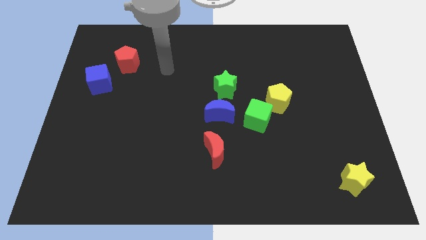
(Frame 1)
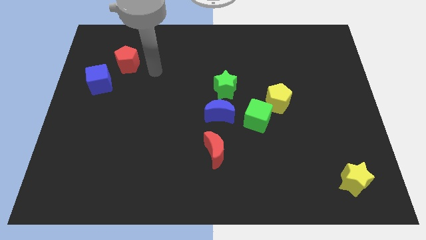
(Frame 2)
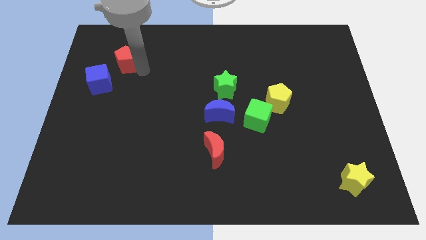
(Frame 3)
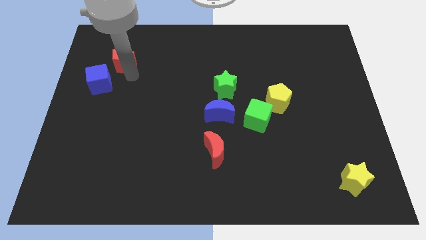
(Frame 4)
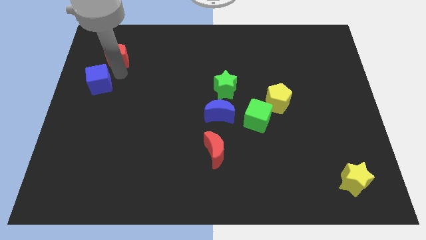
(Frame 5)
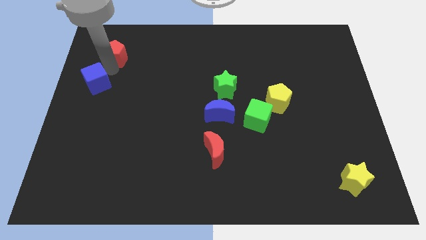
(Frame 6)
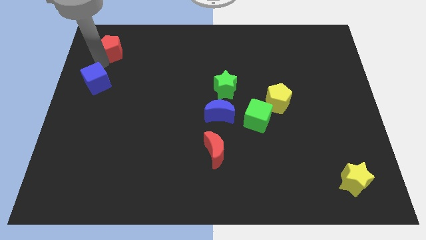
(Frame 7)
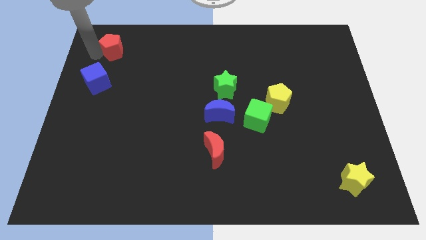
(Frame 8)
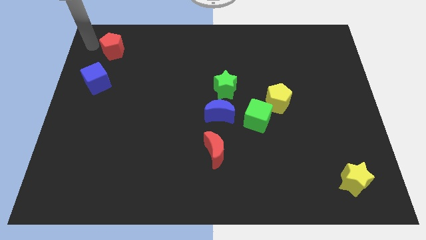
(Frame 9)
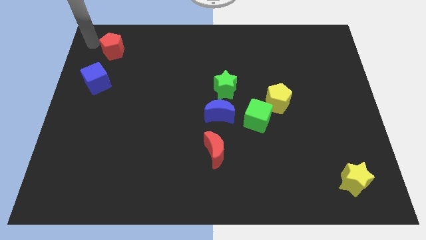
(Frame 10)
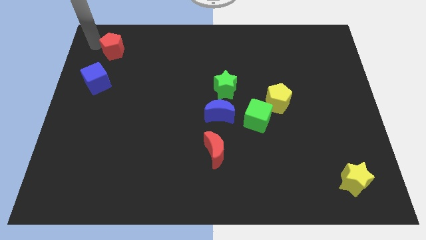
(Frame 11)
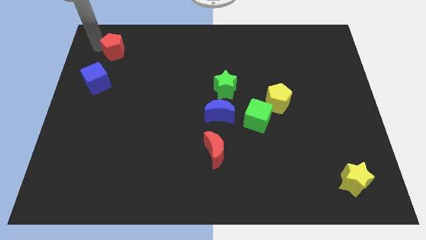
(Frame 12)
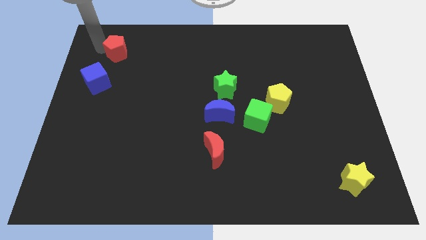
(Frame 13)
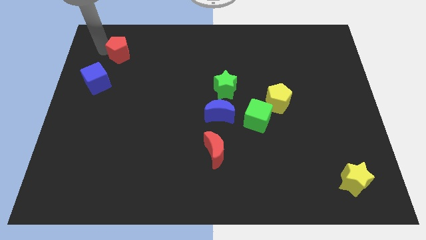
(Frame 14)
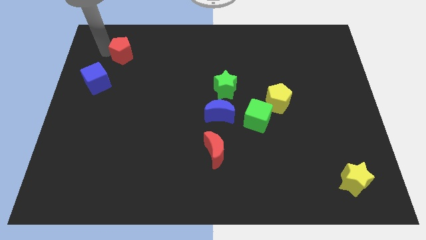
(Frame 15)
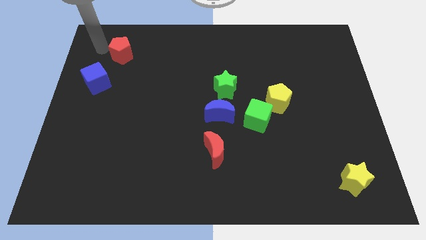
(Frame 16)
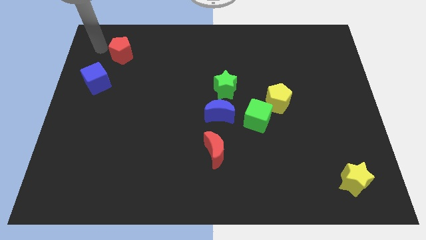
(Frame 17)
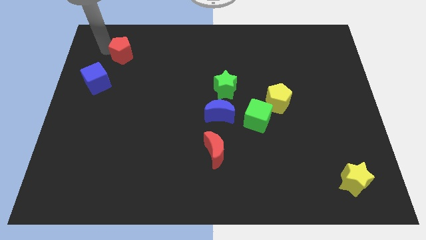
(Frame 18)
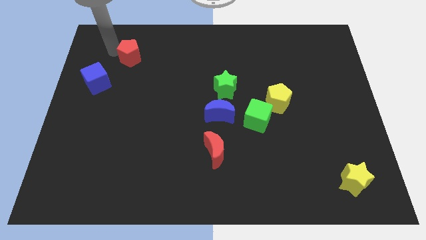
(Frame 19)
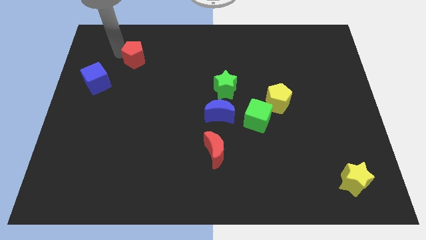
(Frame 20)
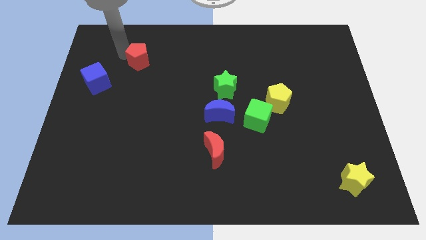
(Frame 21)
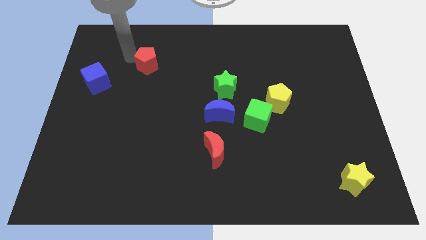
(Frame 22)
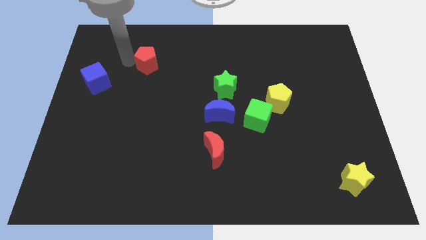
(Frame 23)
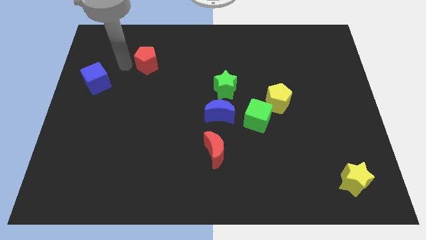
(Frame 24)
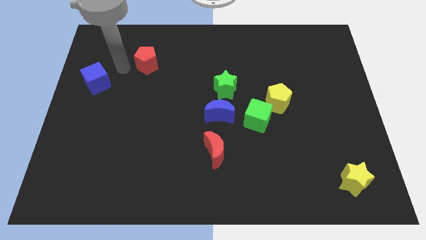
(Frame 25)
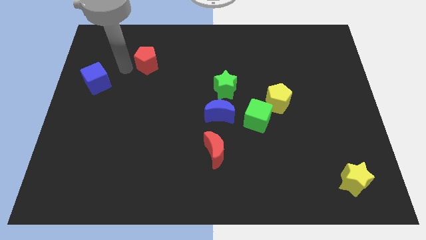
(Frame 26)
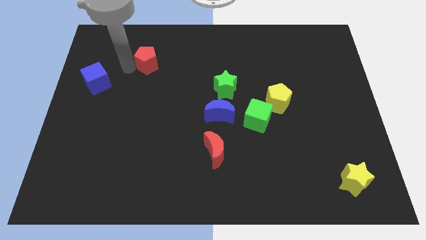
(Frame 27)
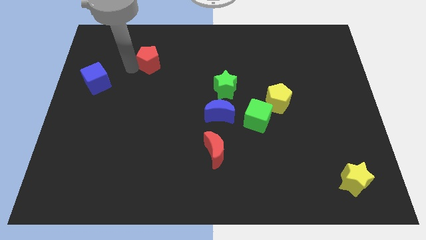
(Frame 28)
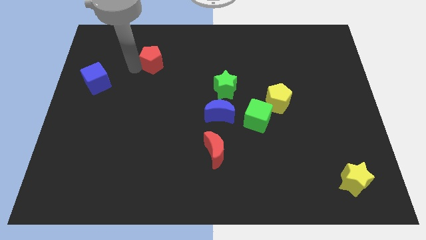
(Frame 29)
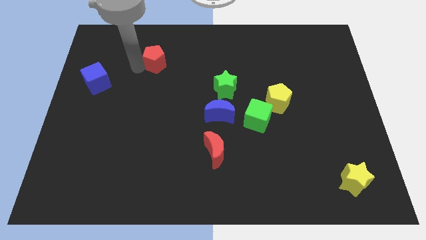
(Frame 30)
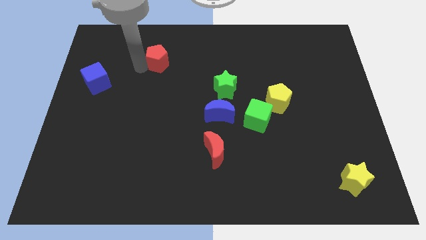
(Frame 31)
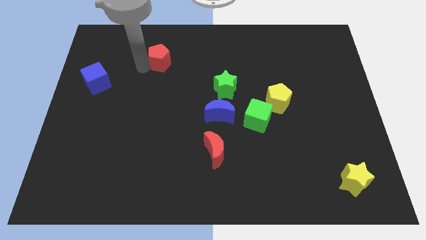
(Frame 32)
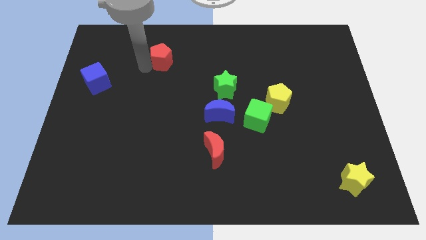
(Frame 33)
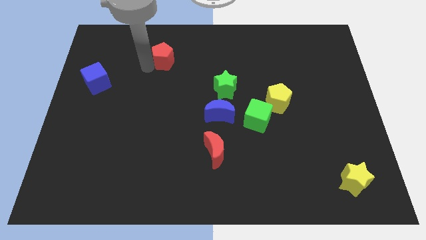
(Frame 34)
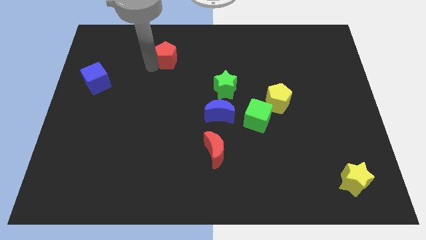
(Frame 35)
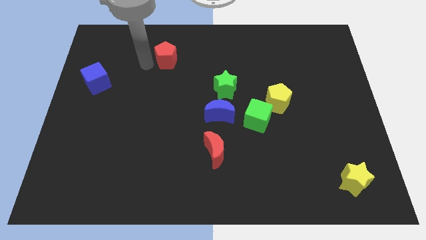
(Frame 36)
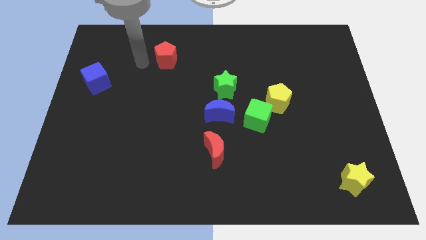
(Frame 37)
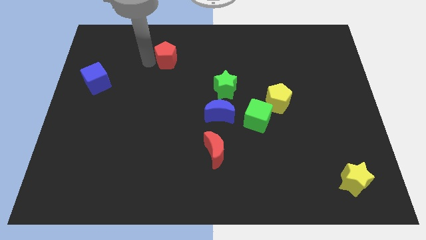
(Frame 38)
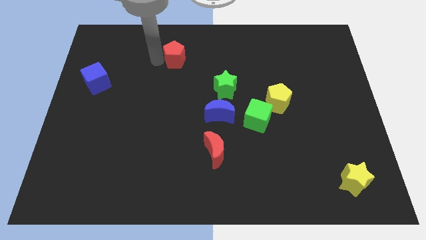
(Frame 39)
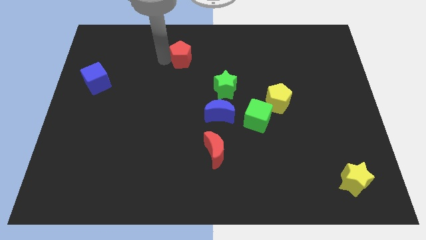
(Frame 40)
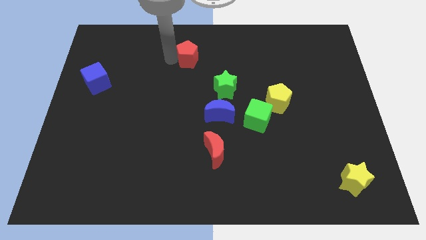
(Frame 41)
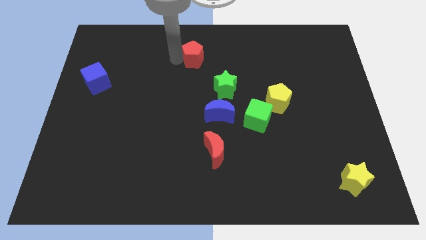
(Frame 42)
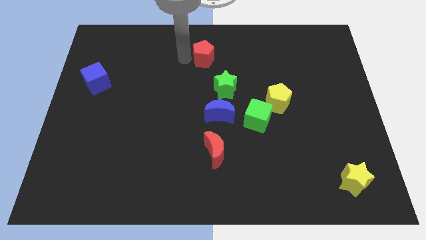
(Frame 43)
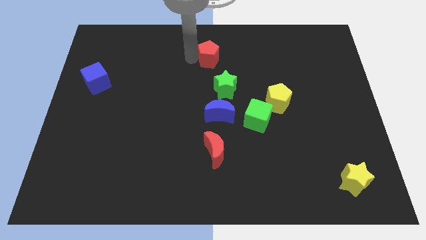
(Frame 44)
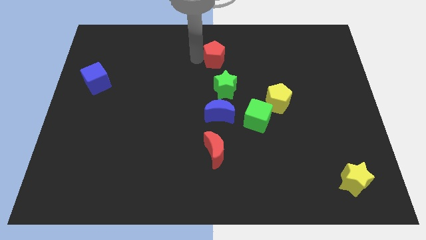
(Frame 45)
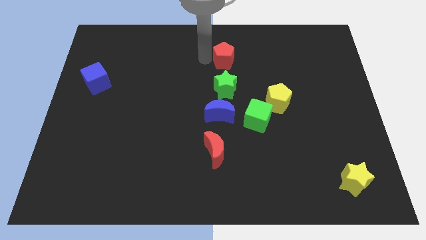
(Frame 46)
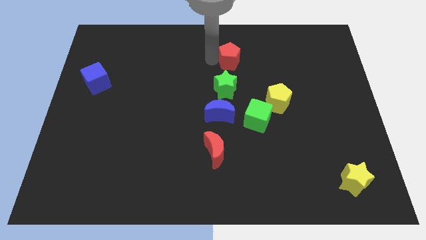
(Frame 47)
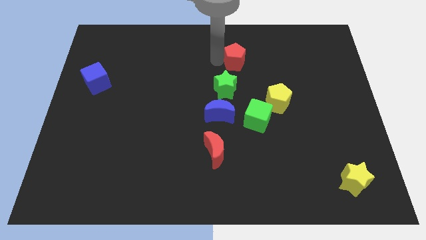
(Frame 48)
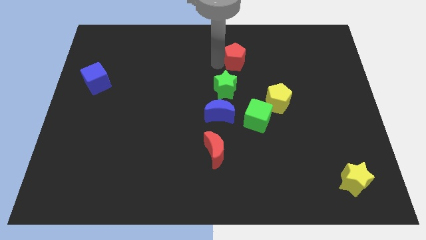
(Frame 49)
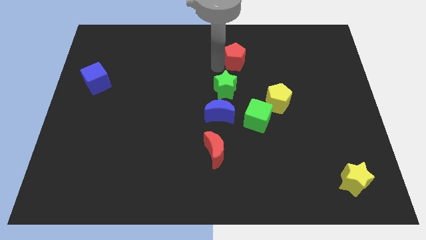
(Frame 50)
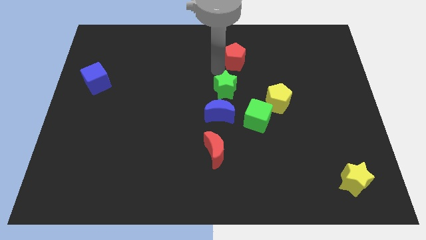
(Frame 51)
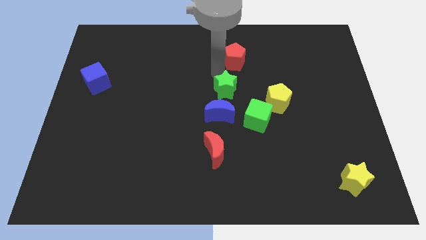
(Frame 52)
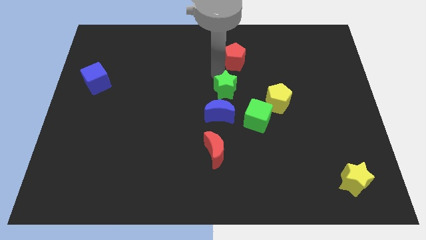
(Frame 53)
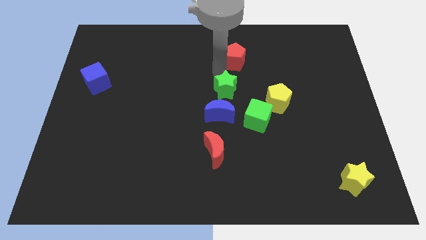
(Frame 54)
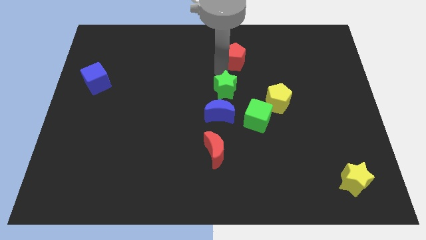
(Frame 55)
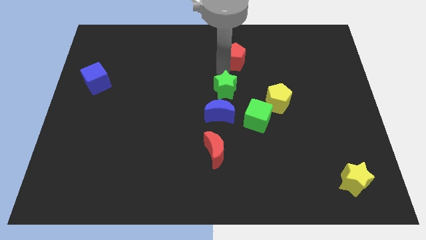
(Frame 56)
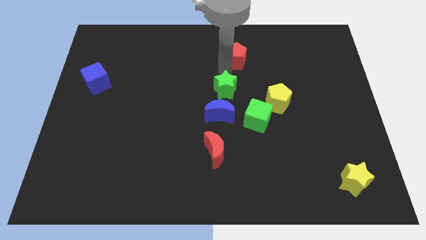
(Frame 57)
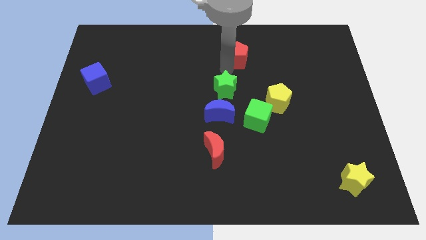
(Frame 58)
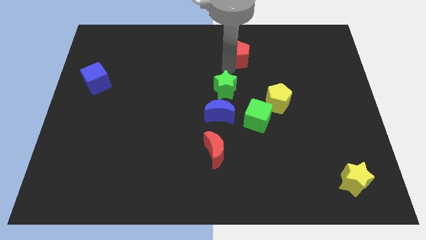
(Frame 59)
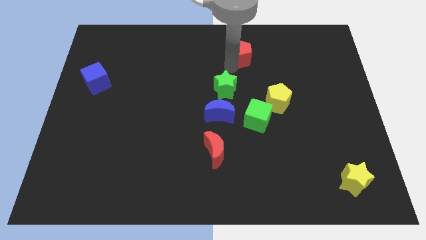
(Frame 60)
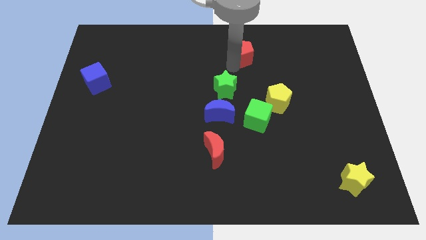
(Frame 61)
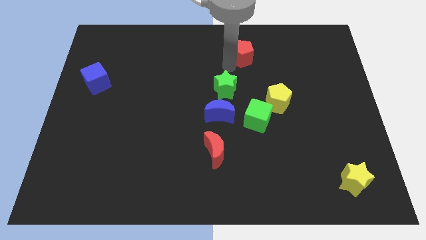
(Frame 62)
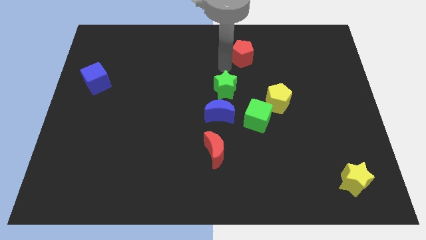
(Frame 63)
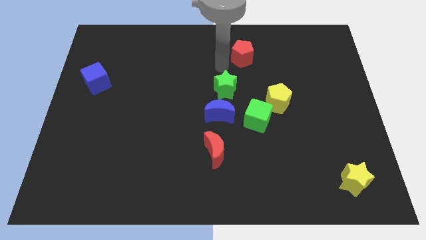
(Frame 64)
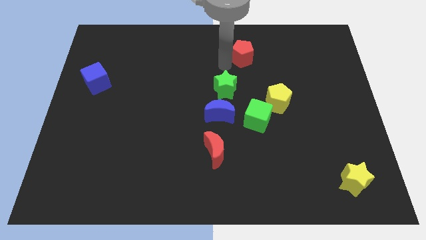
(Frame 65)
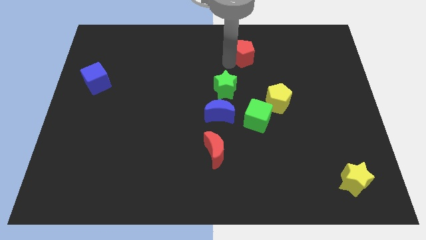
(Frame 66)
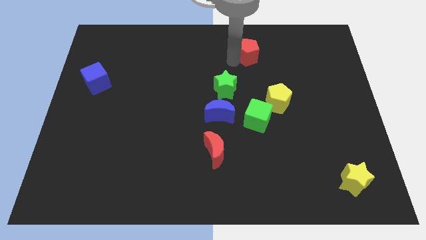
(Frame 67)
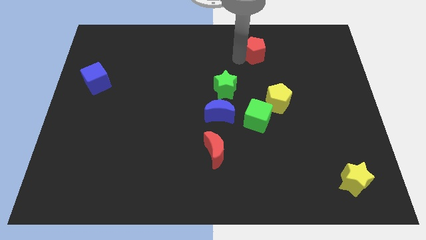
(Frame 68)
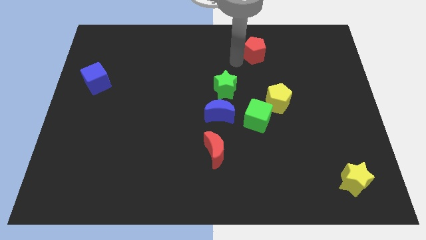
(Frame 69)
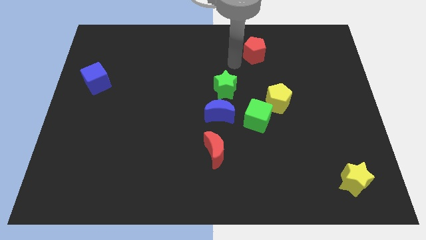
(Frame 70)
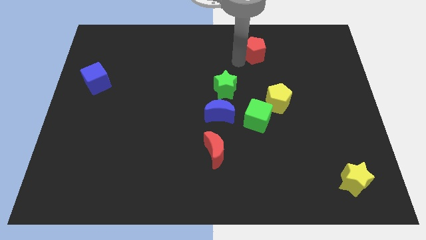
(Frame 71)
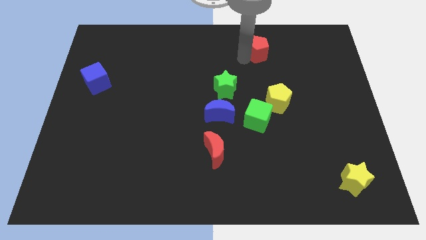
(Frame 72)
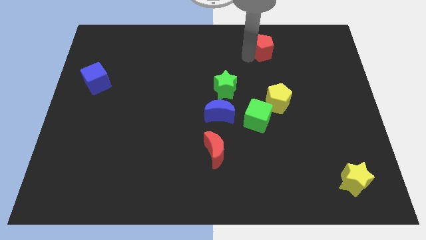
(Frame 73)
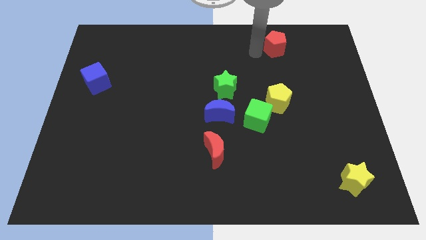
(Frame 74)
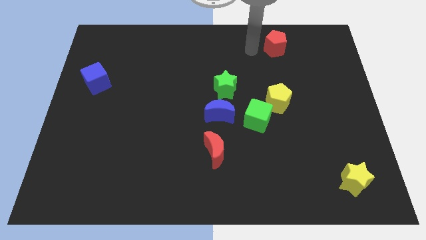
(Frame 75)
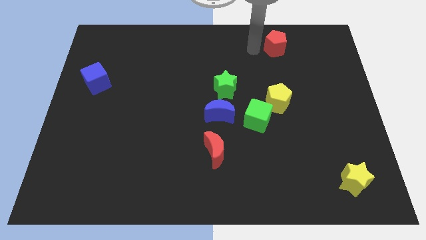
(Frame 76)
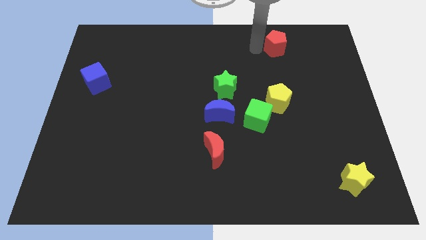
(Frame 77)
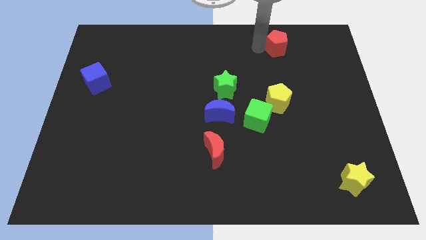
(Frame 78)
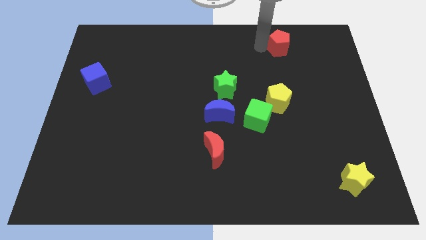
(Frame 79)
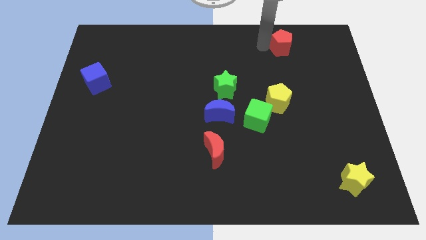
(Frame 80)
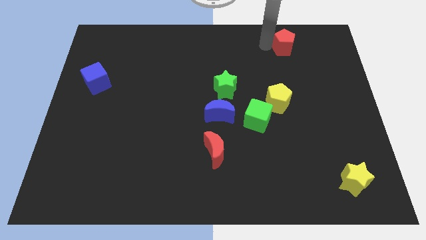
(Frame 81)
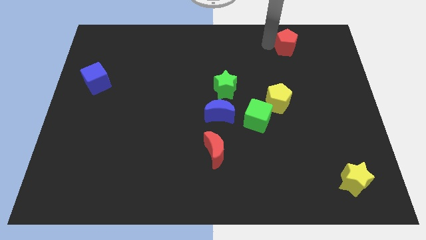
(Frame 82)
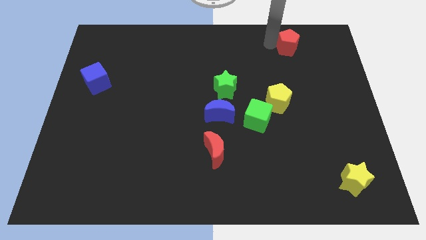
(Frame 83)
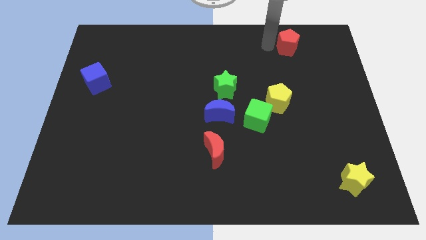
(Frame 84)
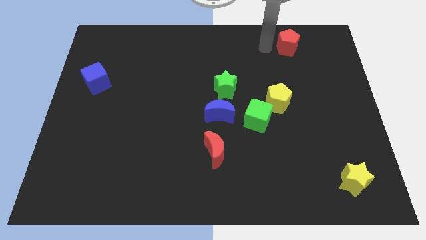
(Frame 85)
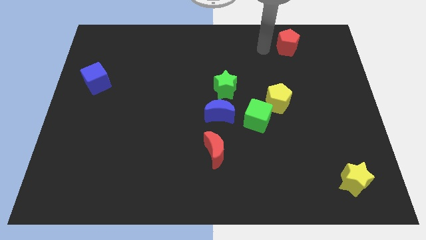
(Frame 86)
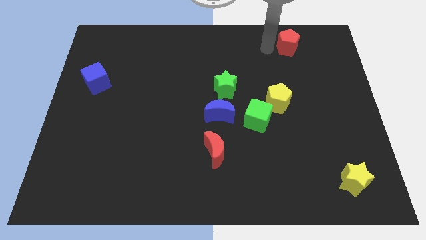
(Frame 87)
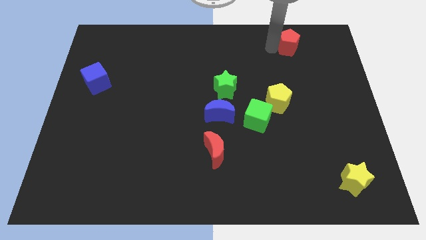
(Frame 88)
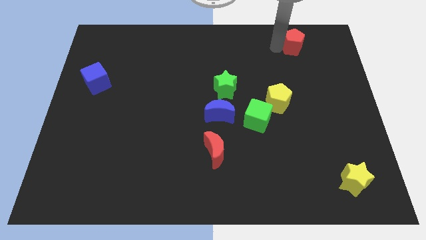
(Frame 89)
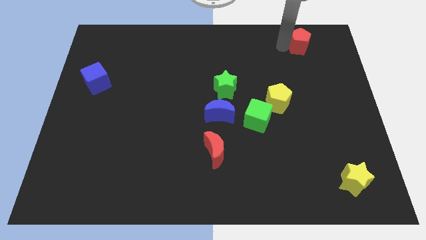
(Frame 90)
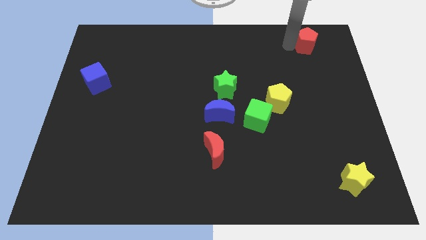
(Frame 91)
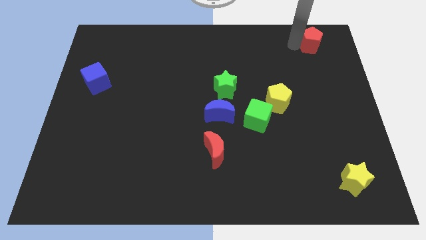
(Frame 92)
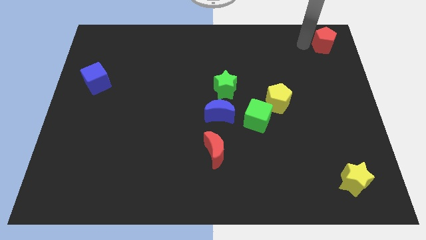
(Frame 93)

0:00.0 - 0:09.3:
put the red pentagon to the top right of the board
